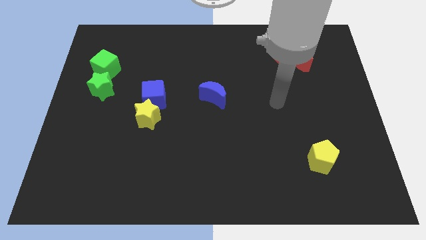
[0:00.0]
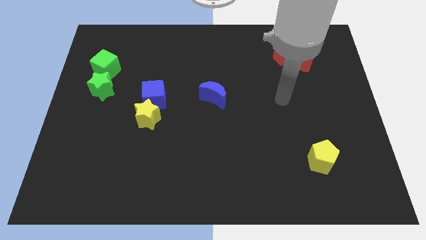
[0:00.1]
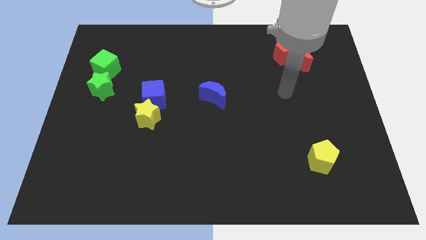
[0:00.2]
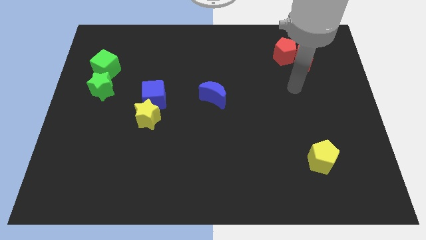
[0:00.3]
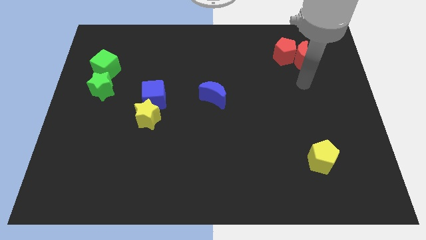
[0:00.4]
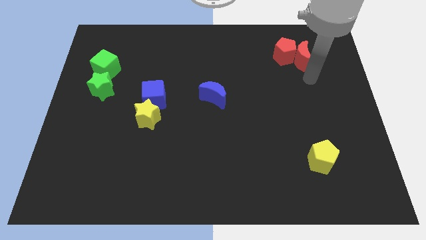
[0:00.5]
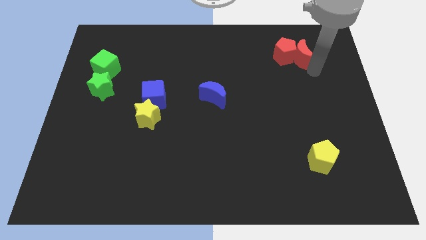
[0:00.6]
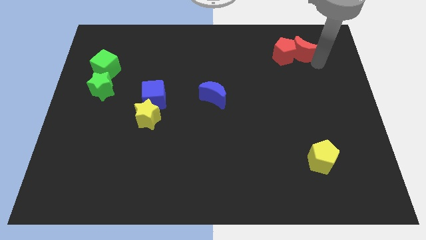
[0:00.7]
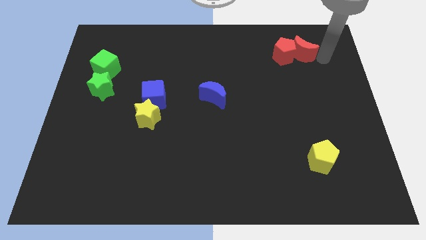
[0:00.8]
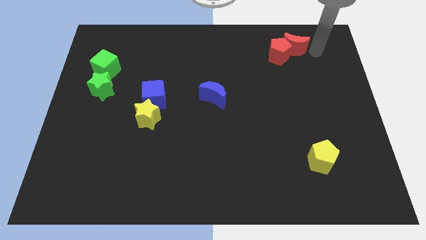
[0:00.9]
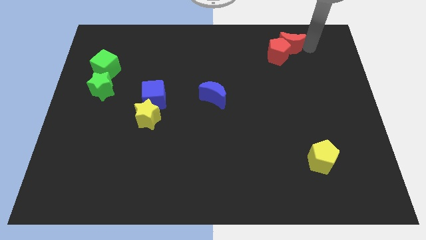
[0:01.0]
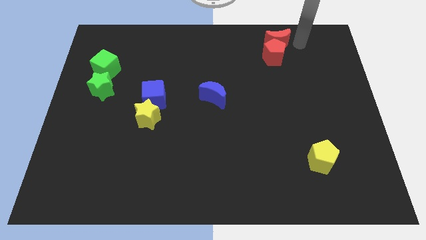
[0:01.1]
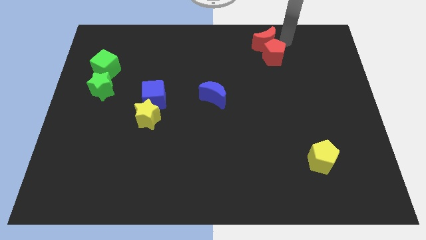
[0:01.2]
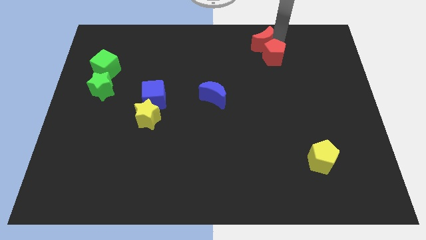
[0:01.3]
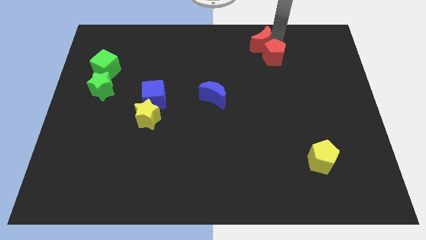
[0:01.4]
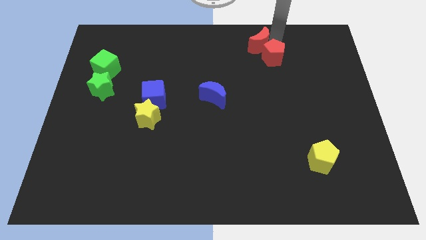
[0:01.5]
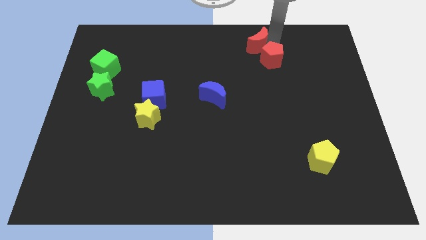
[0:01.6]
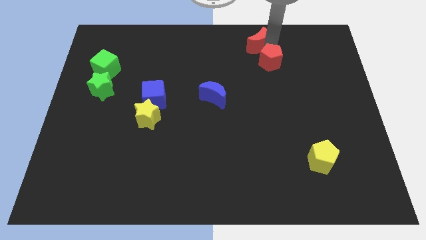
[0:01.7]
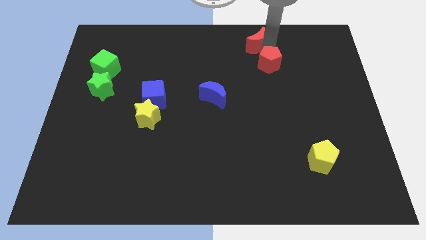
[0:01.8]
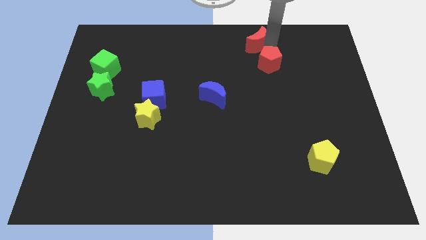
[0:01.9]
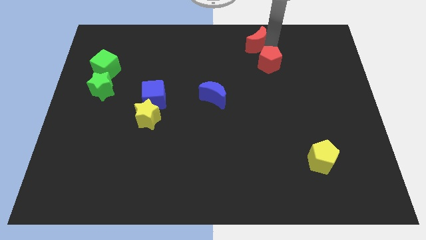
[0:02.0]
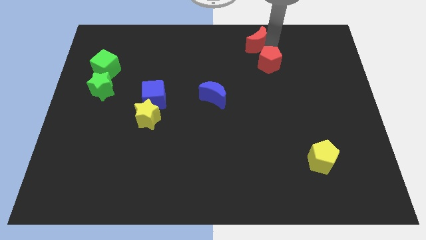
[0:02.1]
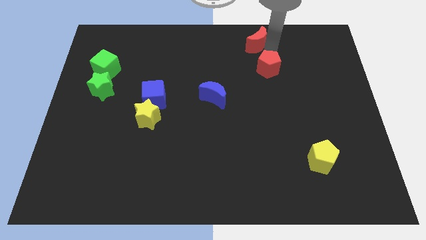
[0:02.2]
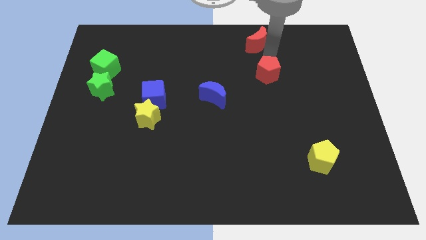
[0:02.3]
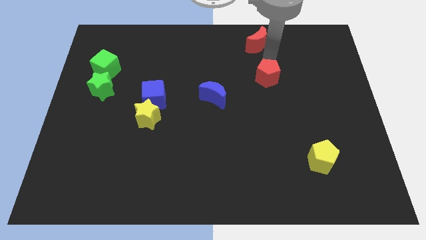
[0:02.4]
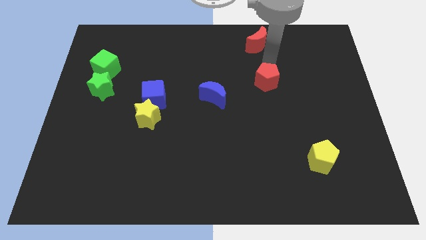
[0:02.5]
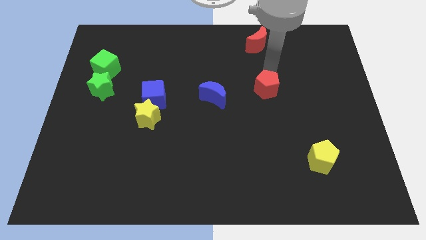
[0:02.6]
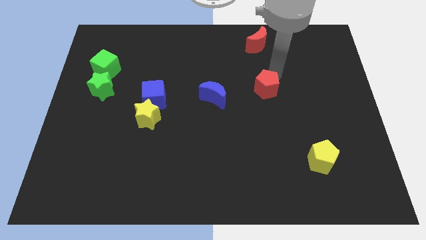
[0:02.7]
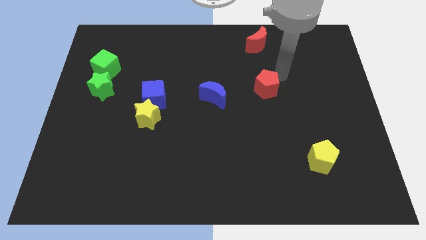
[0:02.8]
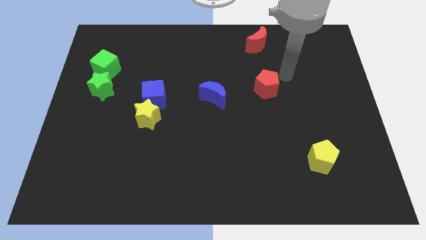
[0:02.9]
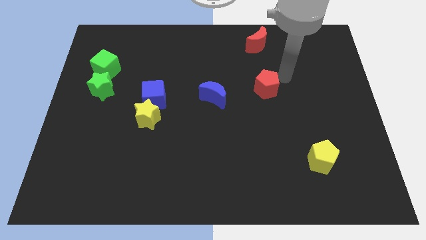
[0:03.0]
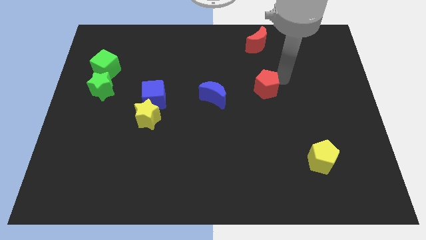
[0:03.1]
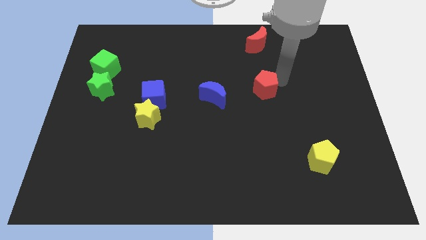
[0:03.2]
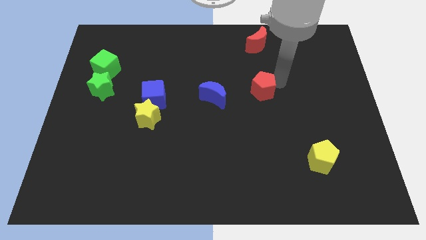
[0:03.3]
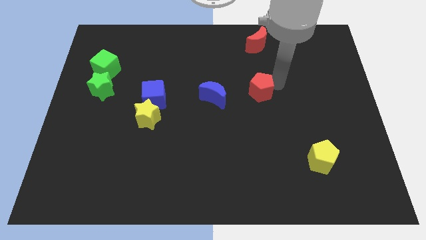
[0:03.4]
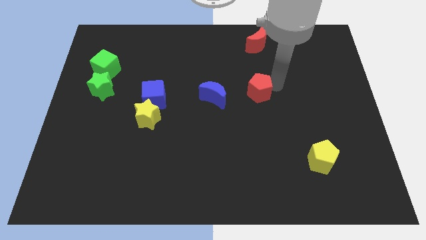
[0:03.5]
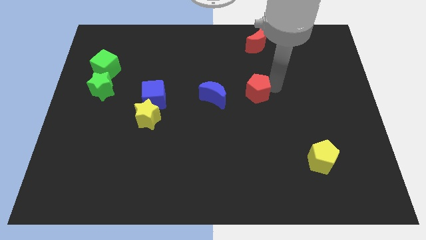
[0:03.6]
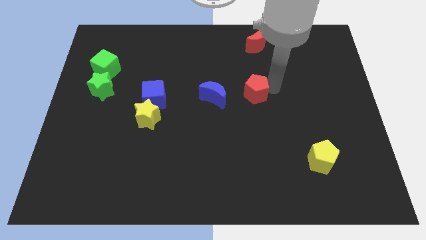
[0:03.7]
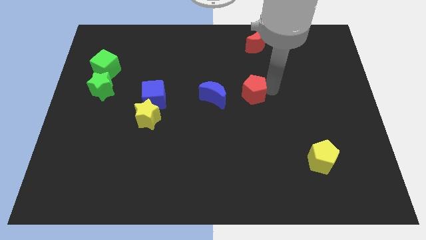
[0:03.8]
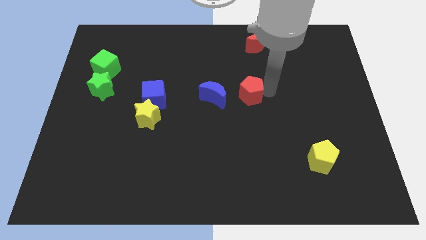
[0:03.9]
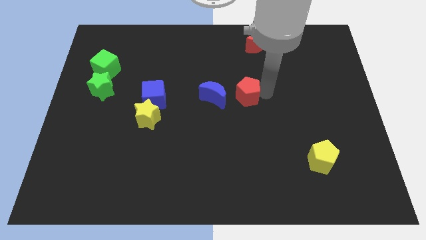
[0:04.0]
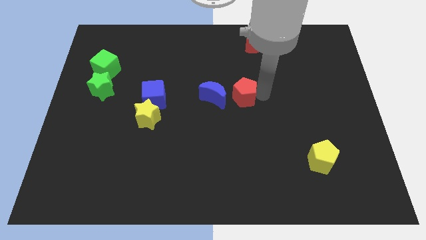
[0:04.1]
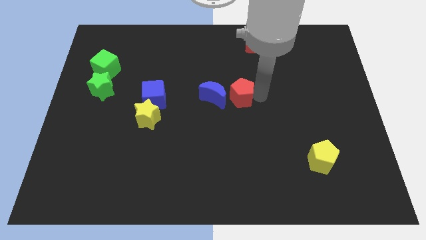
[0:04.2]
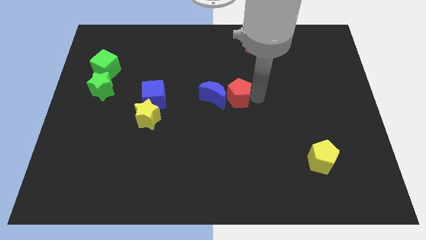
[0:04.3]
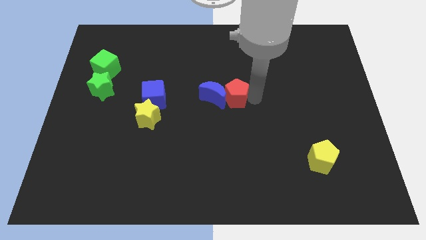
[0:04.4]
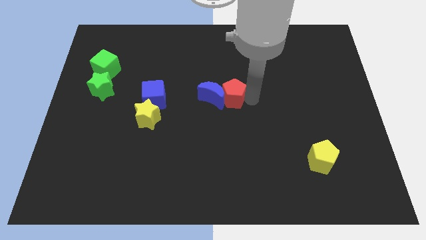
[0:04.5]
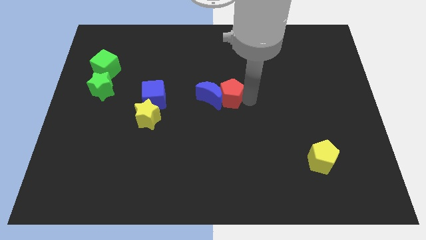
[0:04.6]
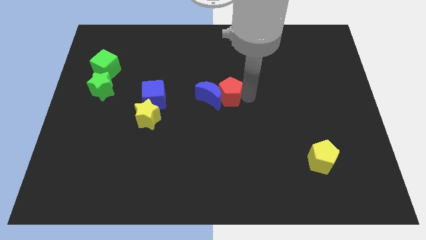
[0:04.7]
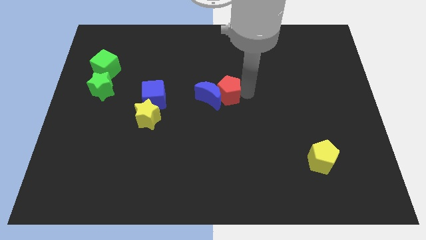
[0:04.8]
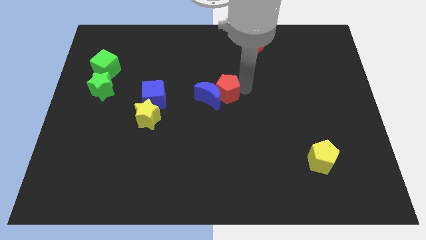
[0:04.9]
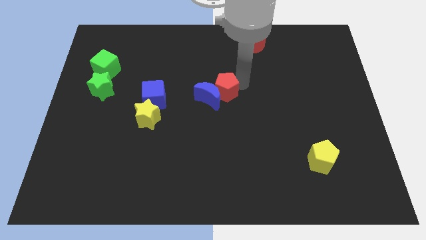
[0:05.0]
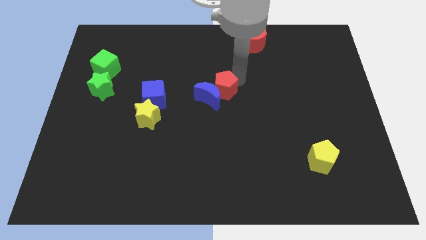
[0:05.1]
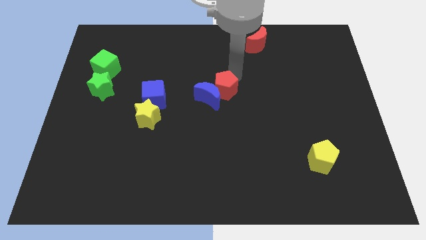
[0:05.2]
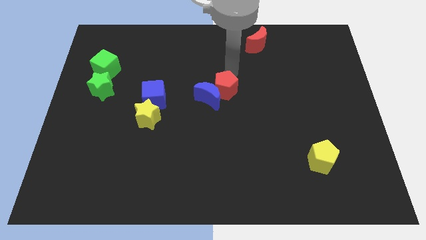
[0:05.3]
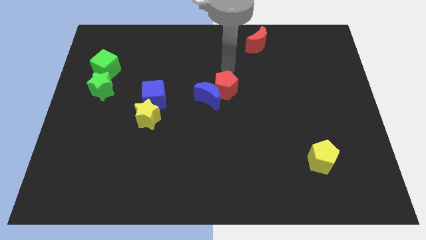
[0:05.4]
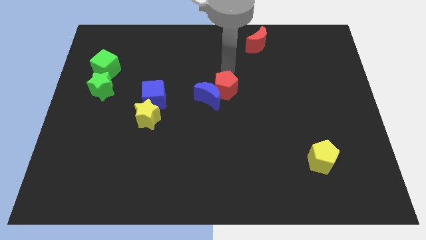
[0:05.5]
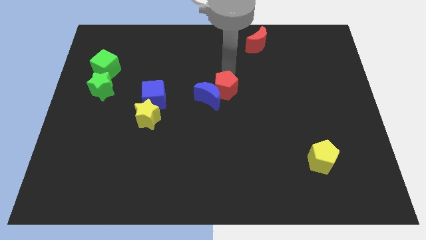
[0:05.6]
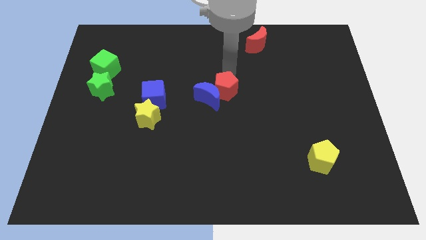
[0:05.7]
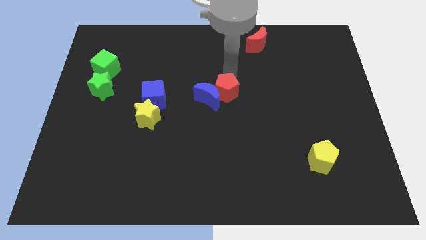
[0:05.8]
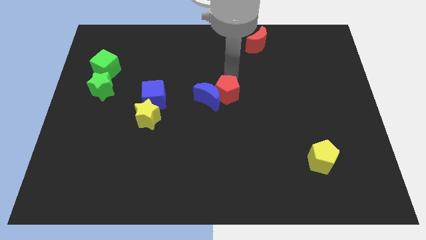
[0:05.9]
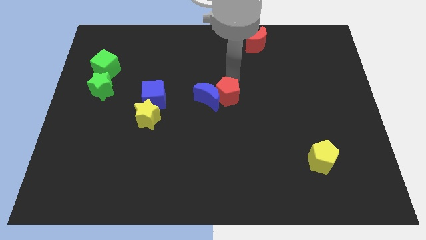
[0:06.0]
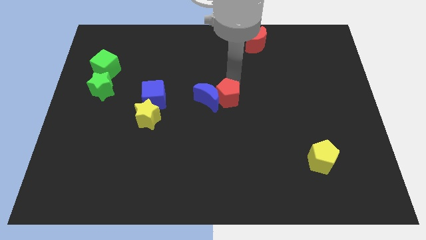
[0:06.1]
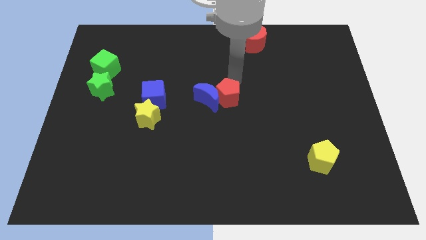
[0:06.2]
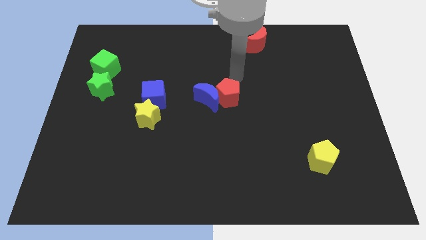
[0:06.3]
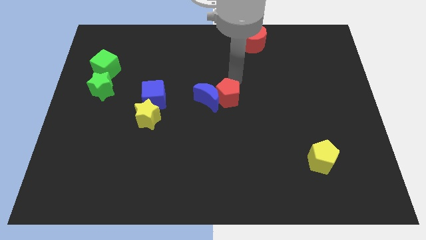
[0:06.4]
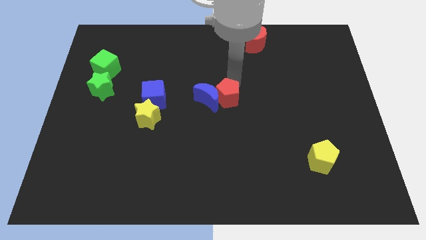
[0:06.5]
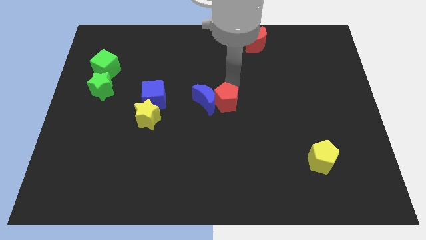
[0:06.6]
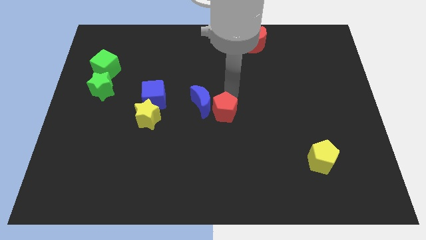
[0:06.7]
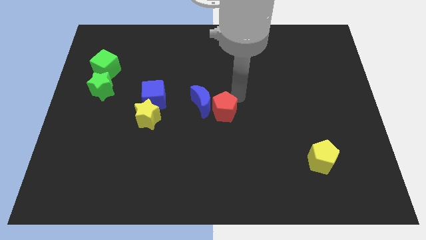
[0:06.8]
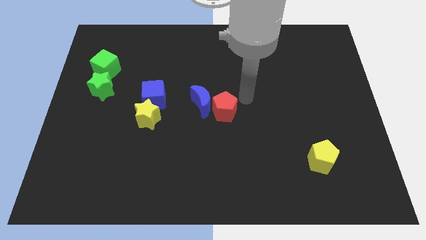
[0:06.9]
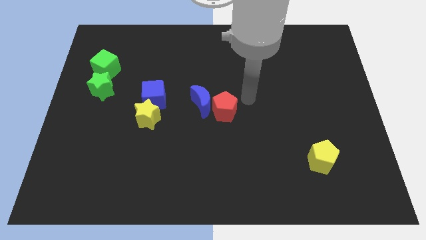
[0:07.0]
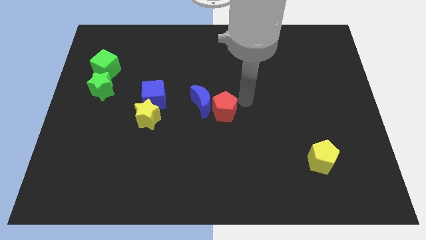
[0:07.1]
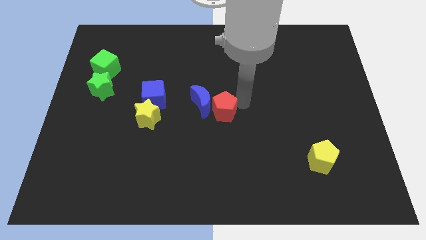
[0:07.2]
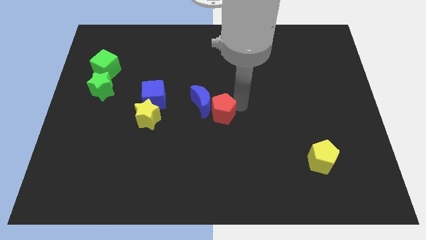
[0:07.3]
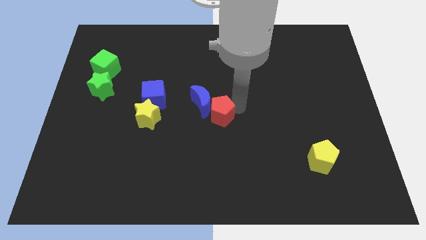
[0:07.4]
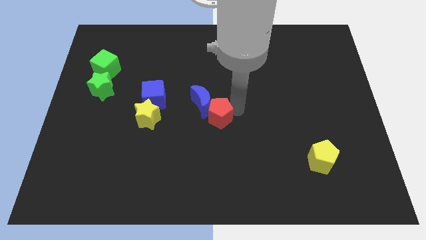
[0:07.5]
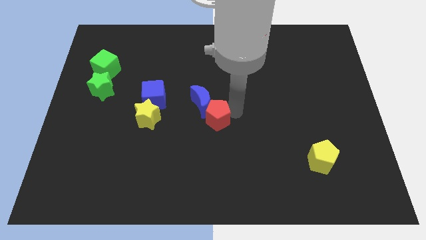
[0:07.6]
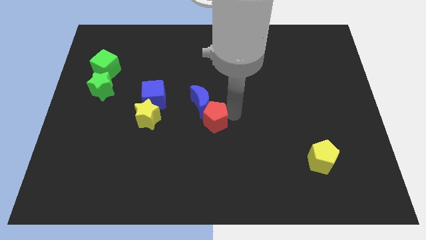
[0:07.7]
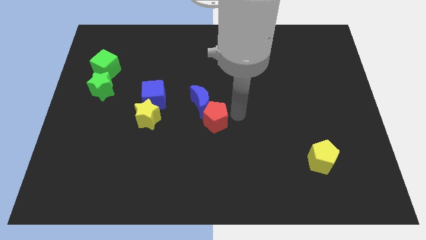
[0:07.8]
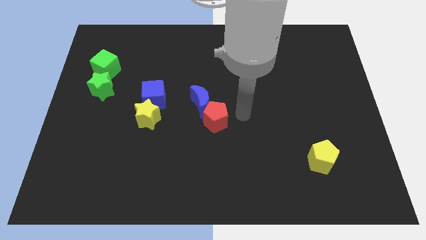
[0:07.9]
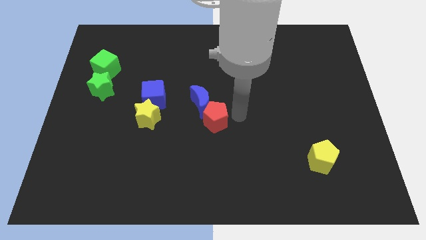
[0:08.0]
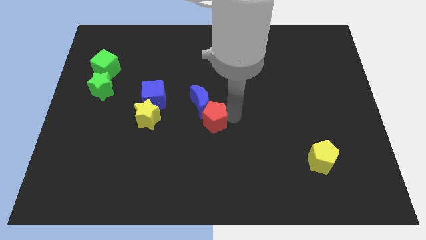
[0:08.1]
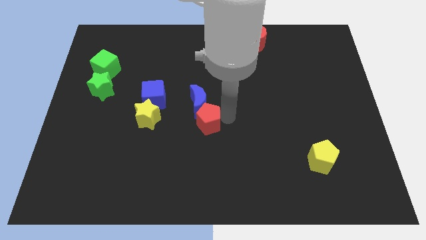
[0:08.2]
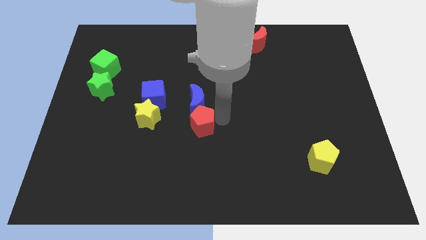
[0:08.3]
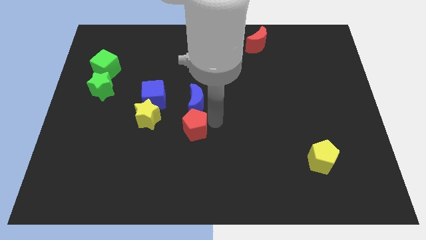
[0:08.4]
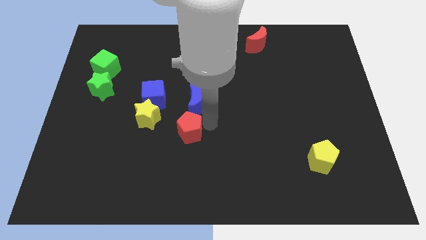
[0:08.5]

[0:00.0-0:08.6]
put the red pentagon diagonally down and to the right of the yellow star
